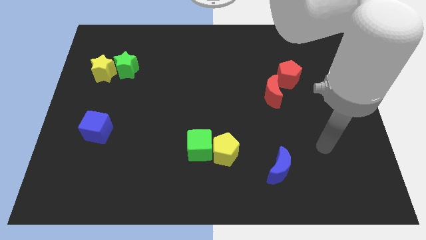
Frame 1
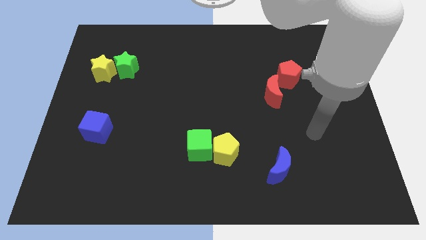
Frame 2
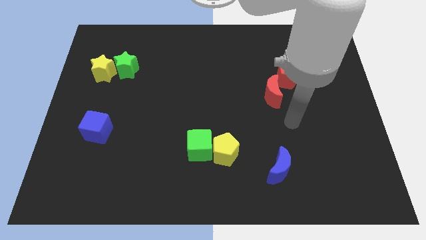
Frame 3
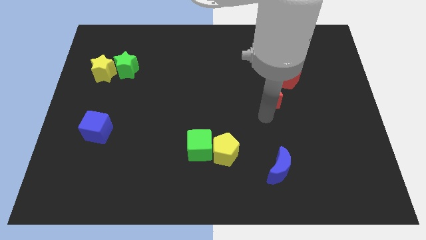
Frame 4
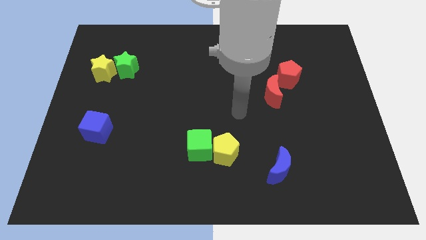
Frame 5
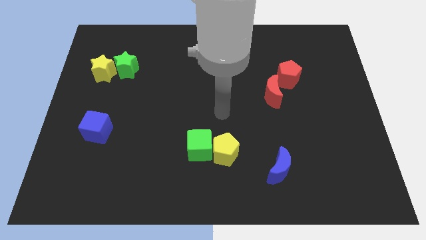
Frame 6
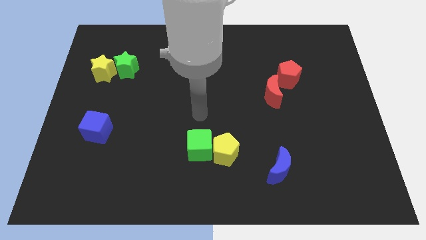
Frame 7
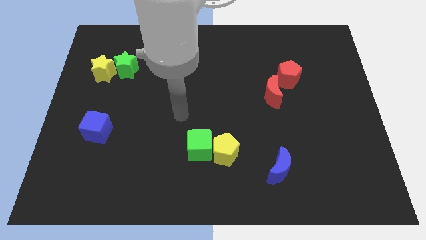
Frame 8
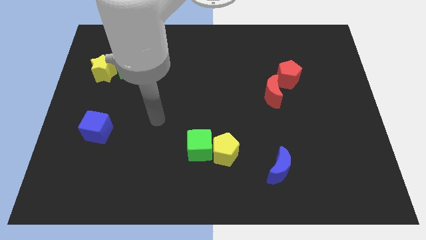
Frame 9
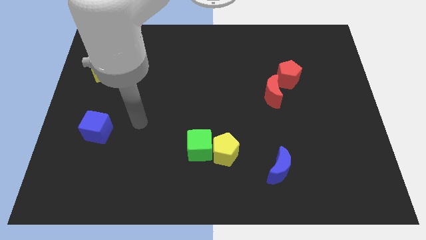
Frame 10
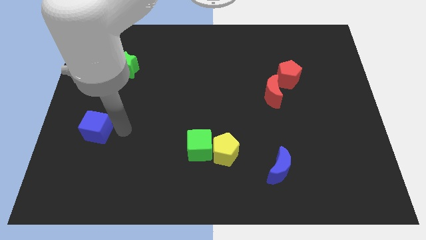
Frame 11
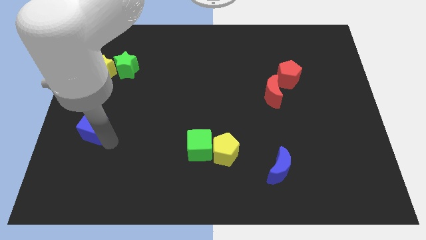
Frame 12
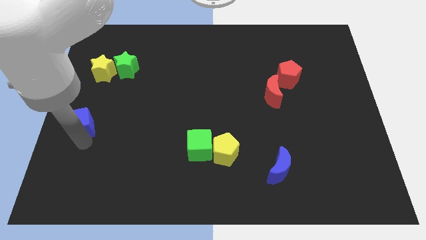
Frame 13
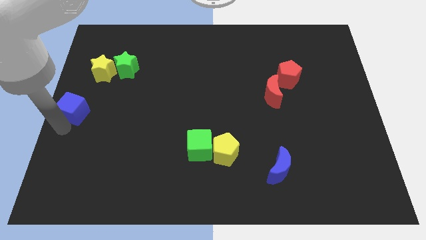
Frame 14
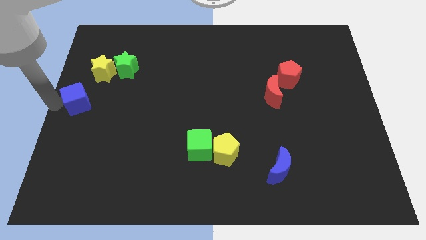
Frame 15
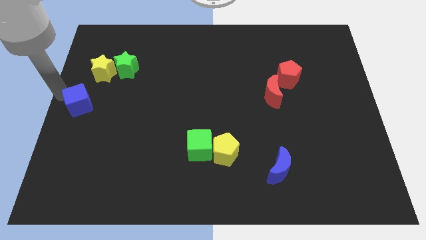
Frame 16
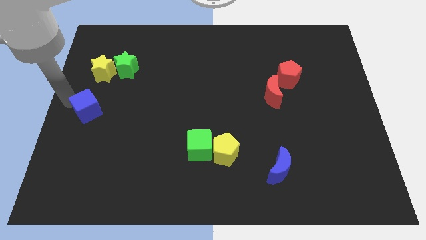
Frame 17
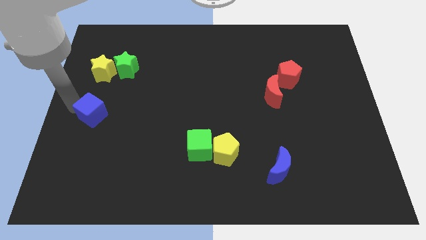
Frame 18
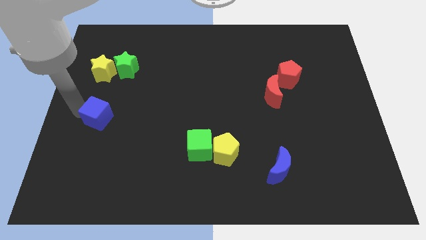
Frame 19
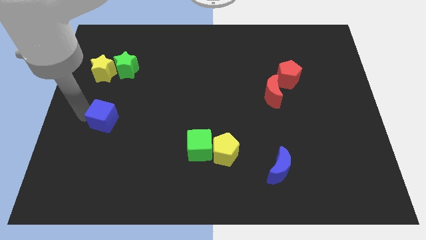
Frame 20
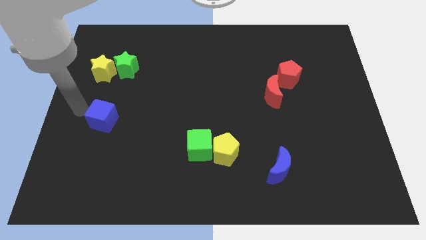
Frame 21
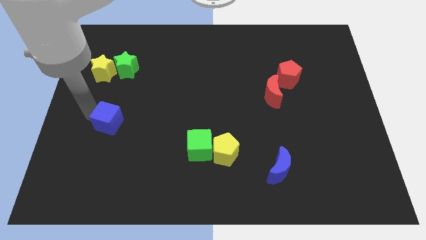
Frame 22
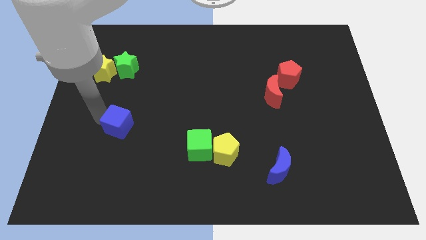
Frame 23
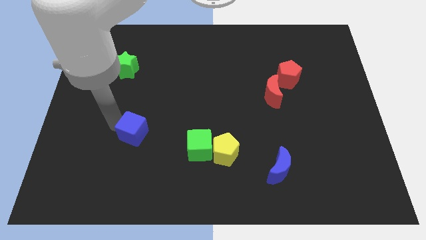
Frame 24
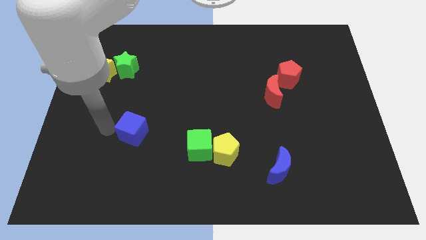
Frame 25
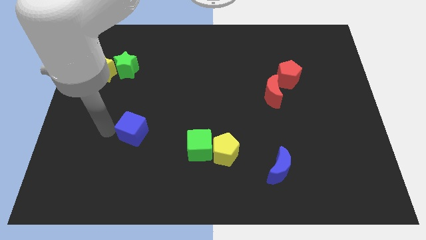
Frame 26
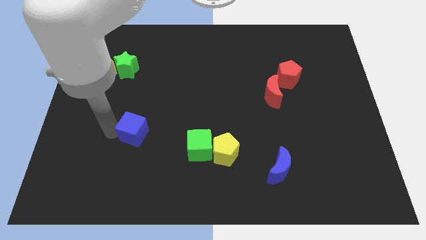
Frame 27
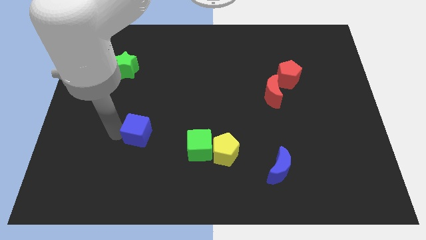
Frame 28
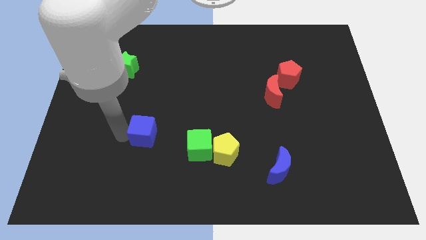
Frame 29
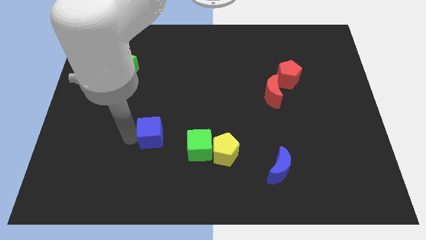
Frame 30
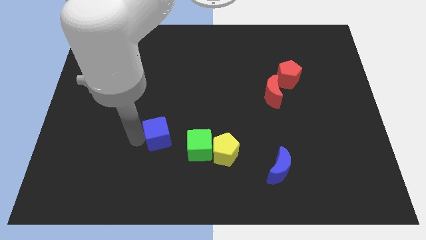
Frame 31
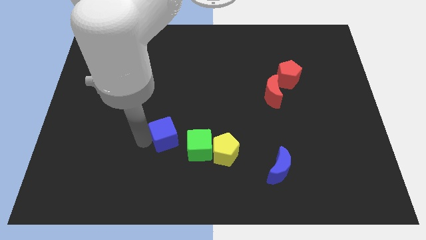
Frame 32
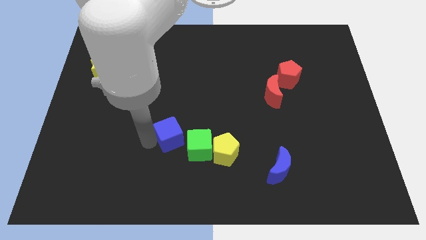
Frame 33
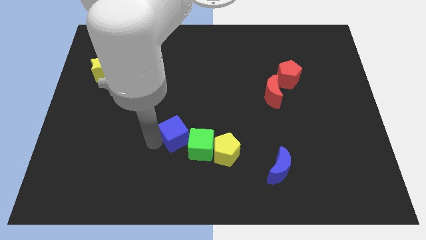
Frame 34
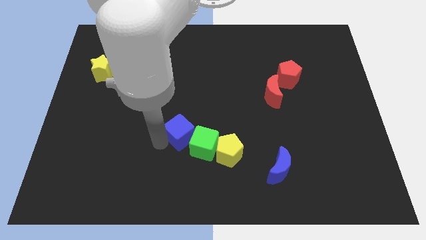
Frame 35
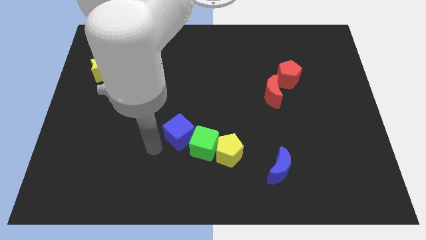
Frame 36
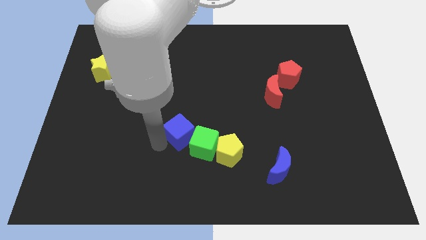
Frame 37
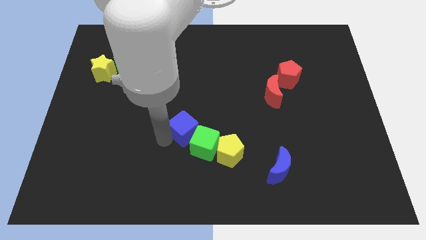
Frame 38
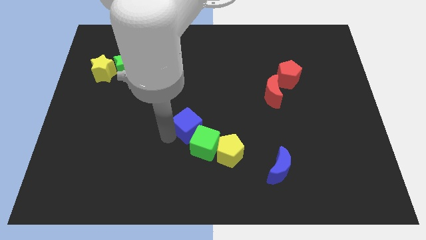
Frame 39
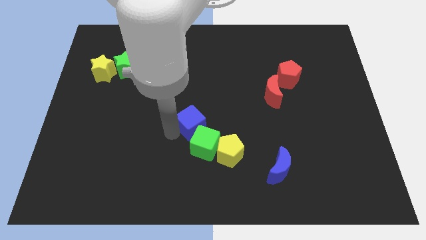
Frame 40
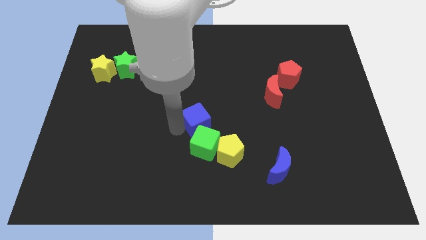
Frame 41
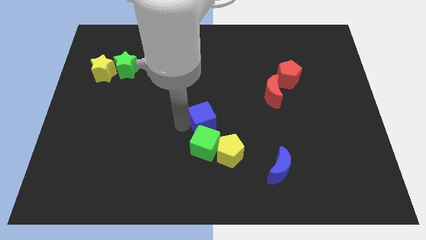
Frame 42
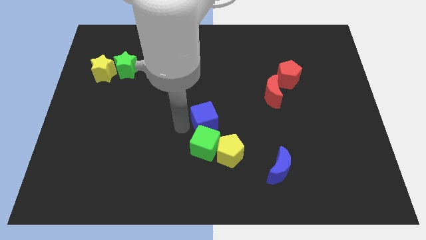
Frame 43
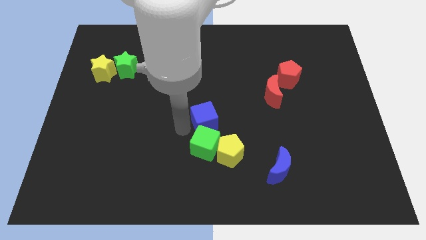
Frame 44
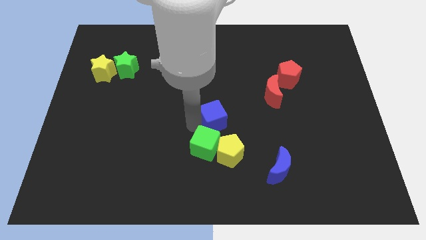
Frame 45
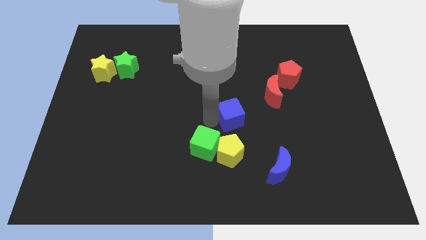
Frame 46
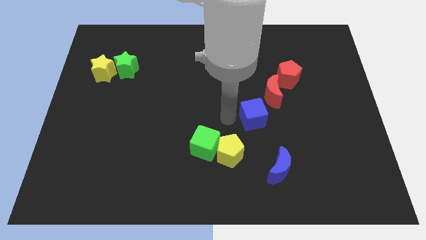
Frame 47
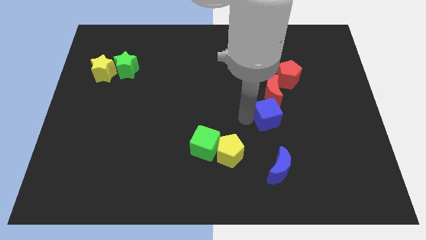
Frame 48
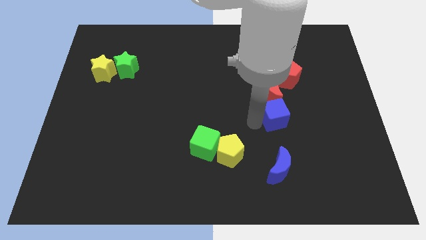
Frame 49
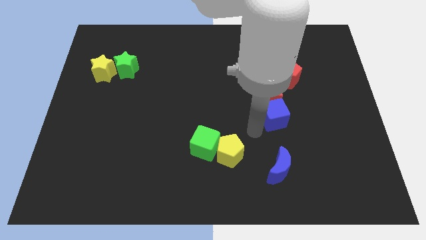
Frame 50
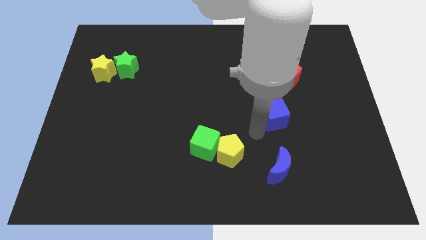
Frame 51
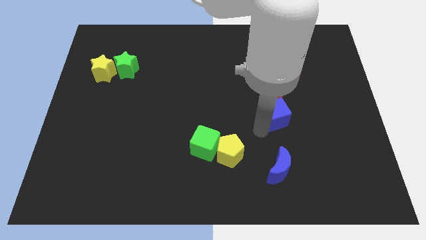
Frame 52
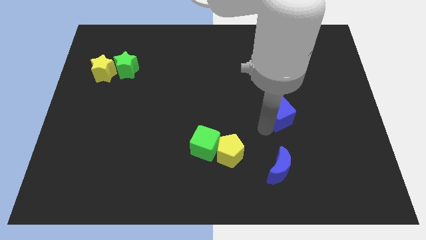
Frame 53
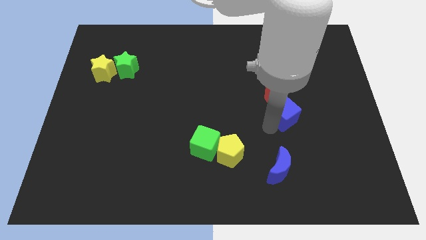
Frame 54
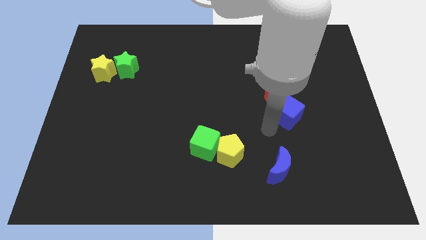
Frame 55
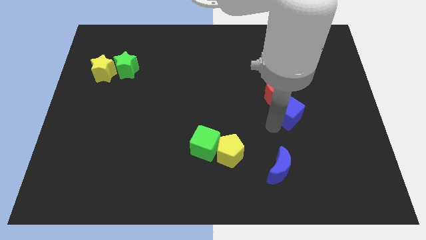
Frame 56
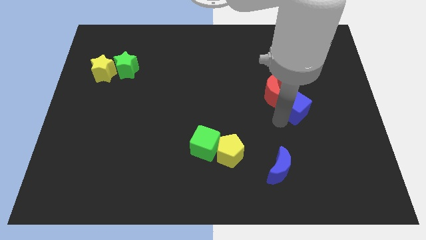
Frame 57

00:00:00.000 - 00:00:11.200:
push the blue cube to the right side of the red moon
